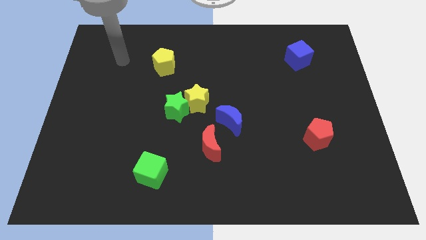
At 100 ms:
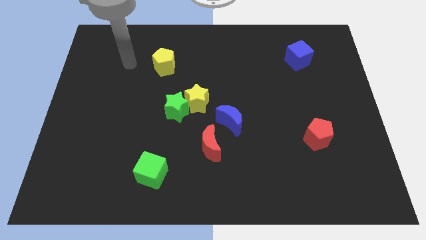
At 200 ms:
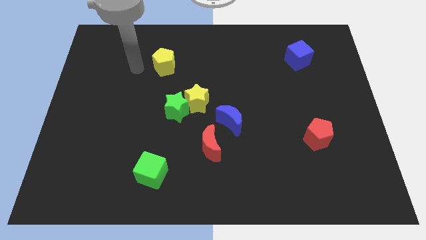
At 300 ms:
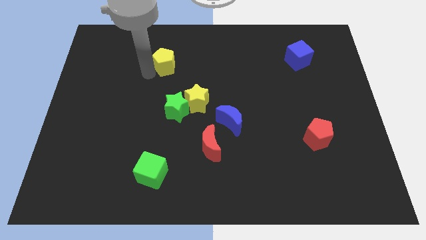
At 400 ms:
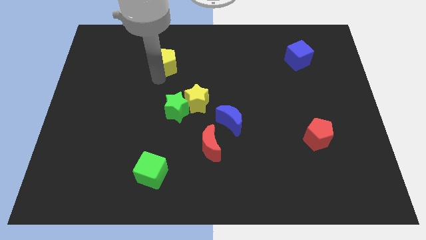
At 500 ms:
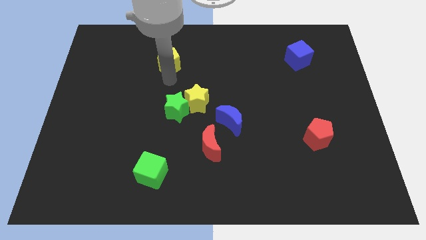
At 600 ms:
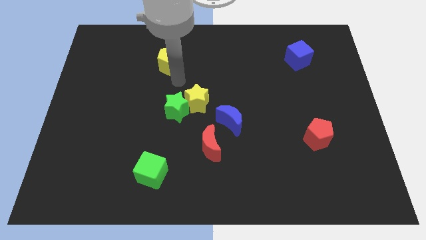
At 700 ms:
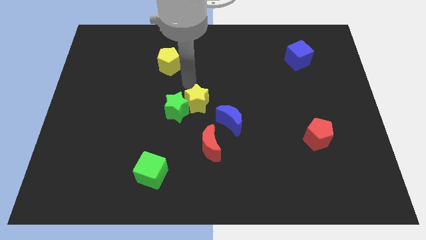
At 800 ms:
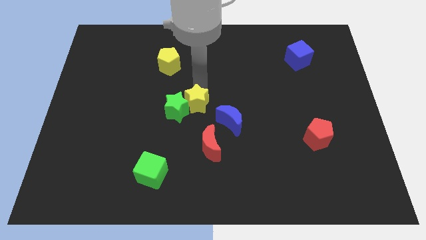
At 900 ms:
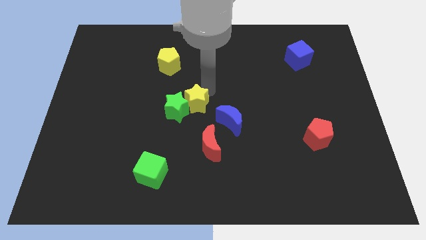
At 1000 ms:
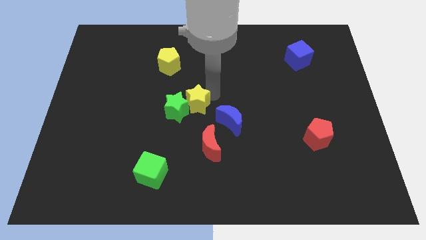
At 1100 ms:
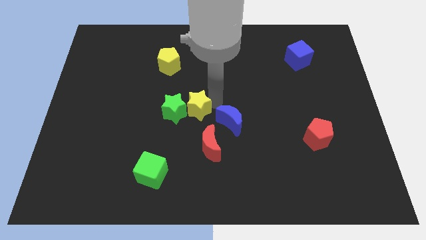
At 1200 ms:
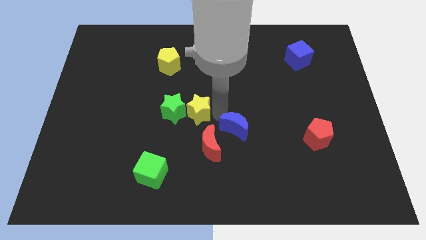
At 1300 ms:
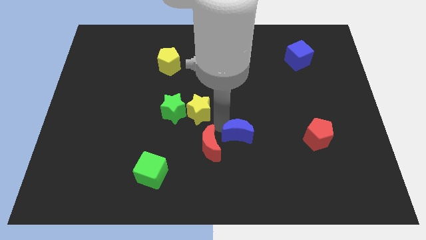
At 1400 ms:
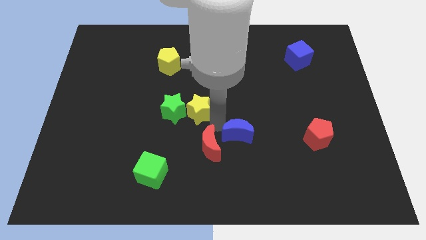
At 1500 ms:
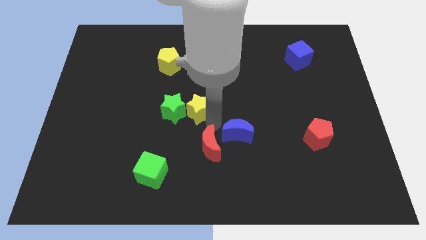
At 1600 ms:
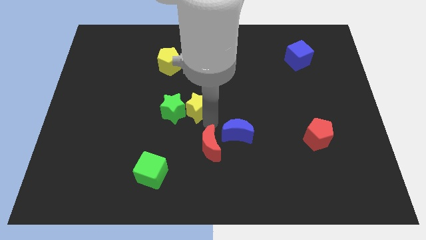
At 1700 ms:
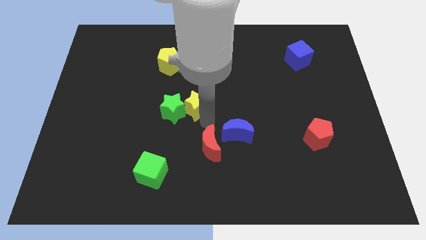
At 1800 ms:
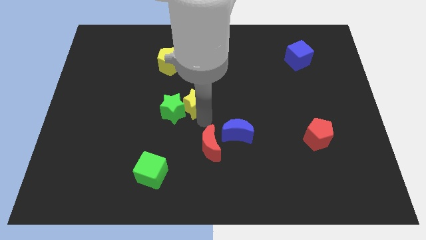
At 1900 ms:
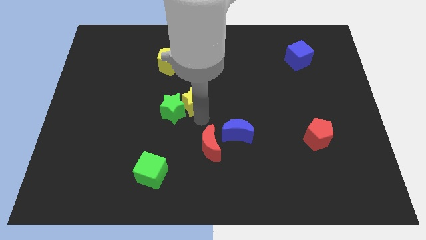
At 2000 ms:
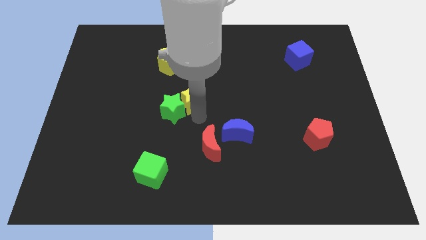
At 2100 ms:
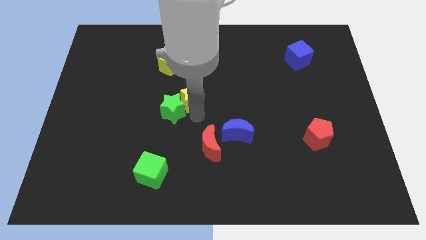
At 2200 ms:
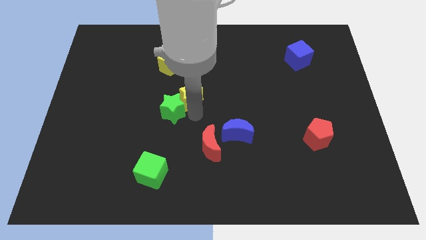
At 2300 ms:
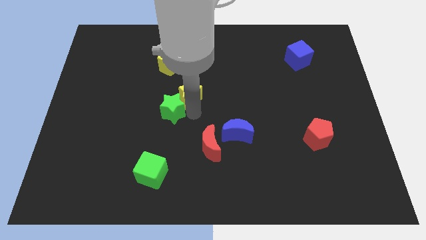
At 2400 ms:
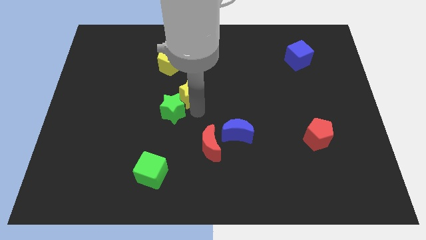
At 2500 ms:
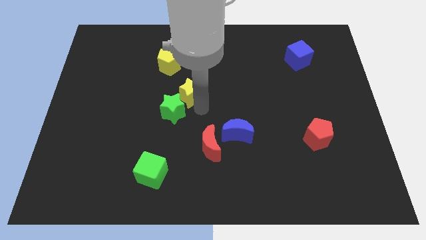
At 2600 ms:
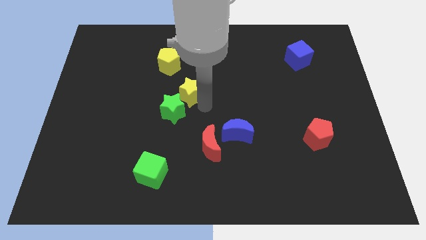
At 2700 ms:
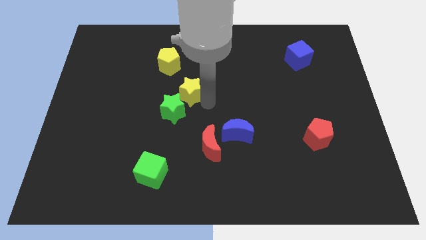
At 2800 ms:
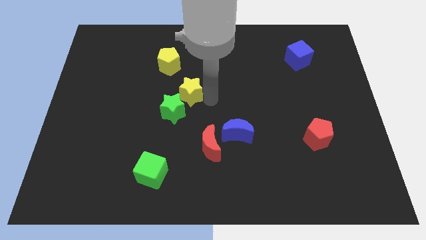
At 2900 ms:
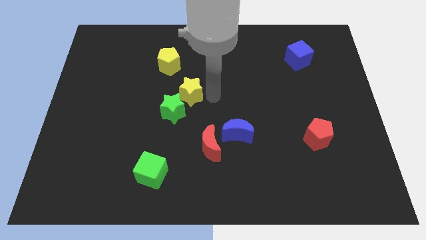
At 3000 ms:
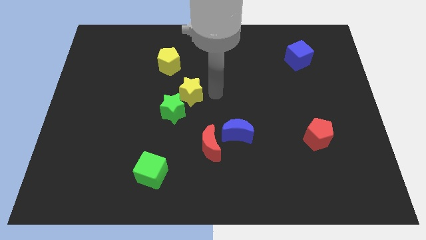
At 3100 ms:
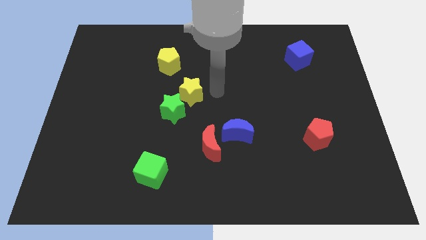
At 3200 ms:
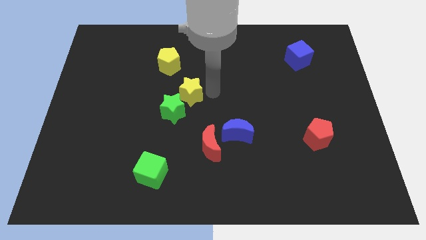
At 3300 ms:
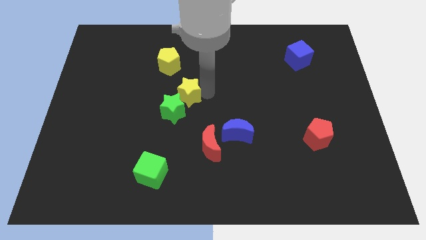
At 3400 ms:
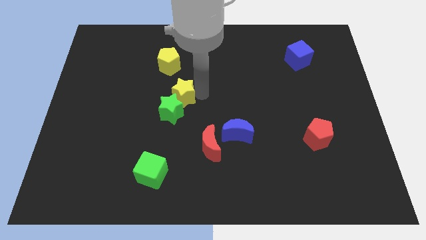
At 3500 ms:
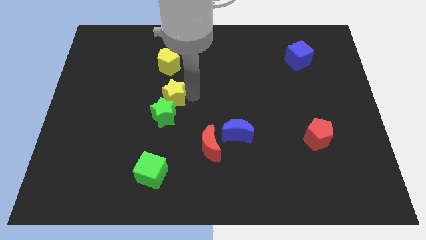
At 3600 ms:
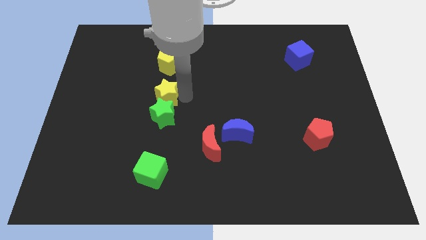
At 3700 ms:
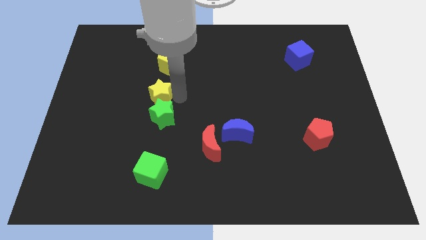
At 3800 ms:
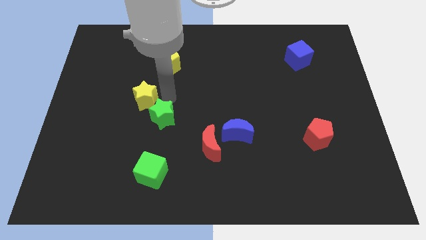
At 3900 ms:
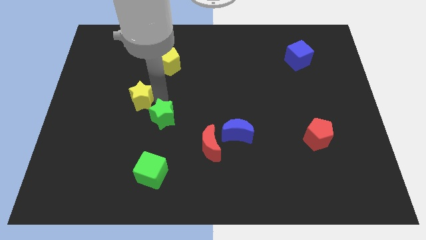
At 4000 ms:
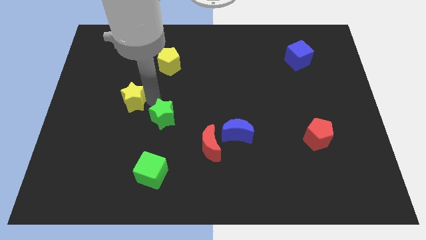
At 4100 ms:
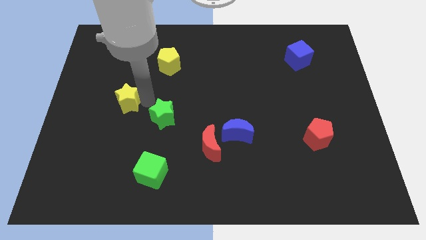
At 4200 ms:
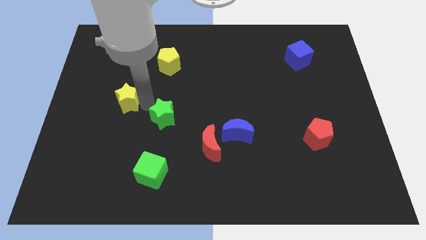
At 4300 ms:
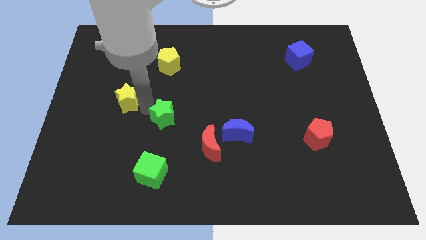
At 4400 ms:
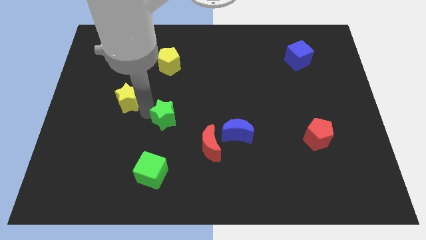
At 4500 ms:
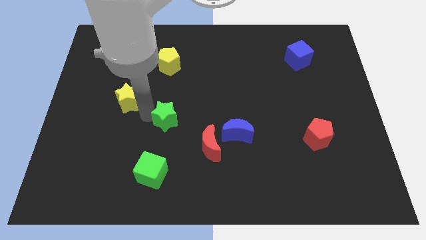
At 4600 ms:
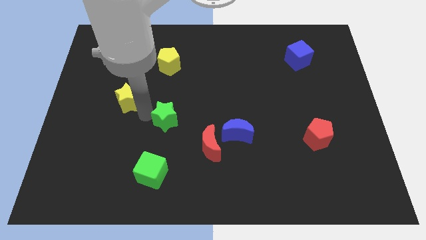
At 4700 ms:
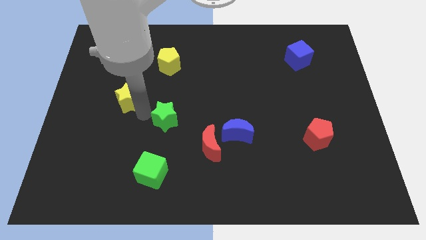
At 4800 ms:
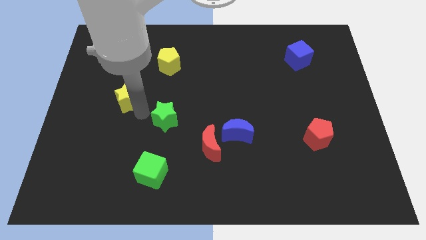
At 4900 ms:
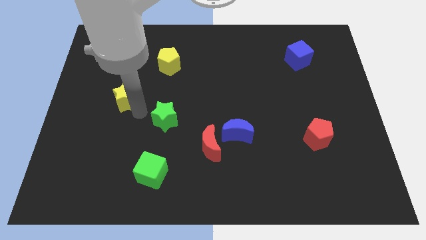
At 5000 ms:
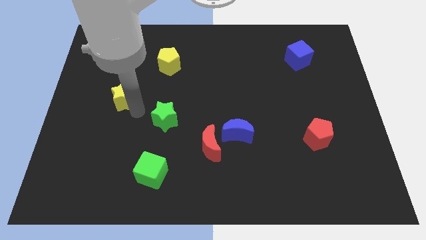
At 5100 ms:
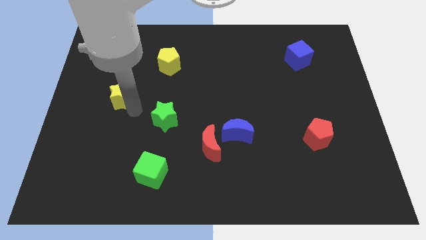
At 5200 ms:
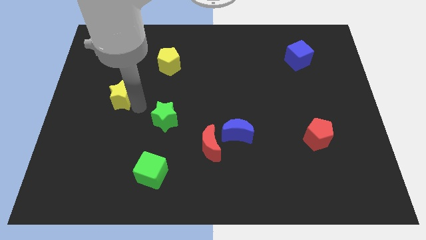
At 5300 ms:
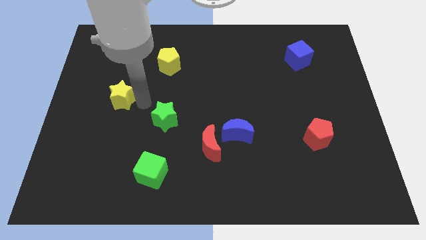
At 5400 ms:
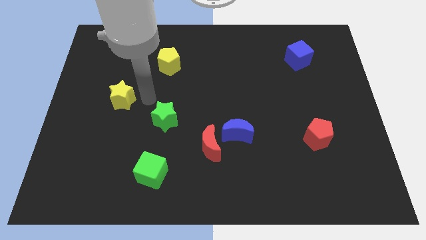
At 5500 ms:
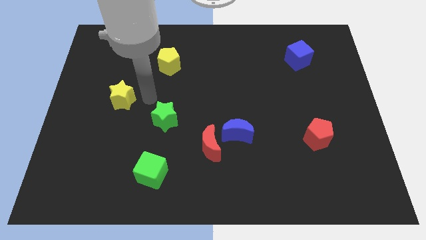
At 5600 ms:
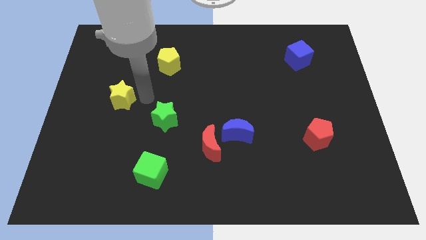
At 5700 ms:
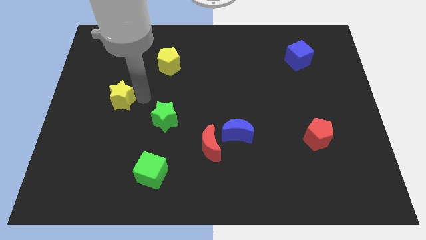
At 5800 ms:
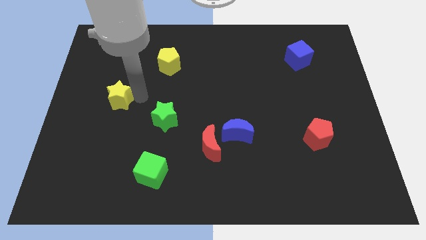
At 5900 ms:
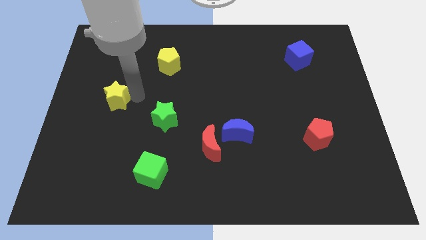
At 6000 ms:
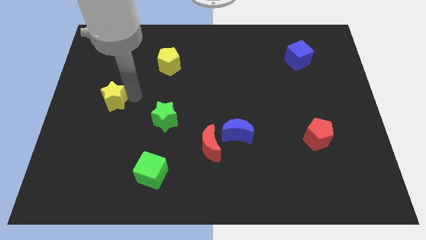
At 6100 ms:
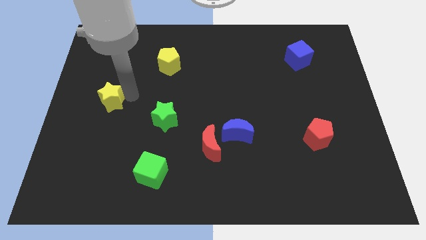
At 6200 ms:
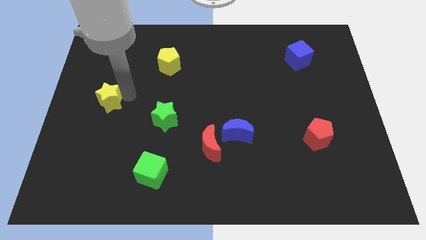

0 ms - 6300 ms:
slide the yellow star to the center left

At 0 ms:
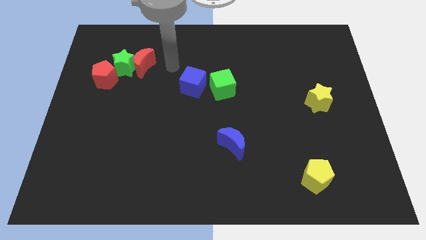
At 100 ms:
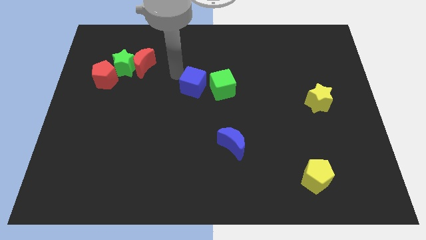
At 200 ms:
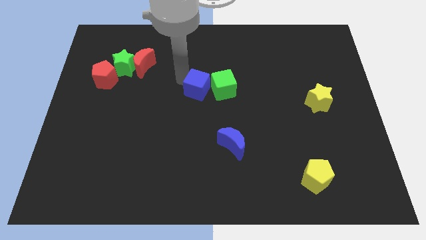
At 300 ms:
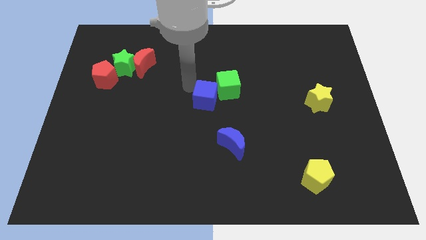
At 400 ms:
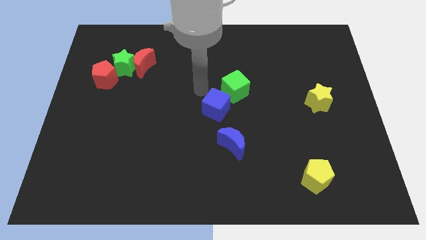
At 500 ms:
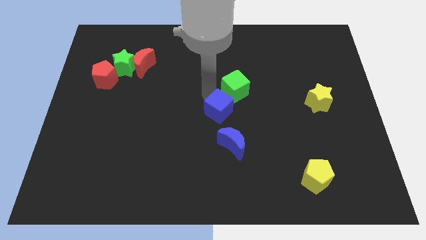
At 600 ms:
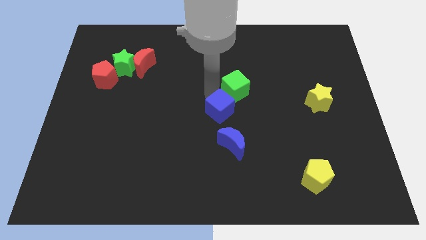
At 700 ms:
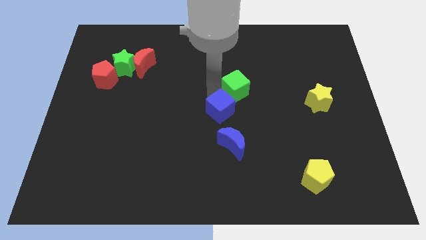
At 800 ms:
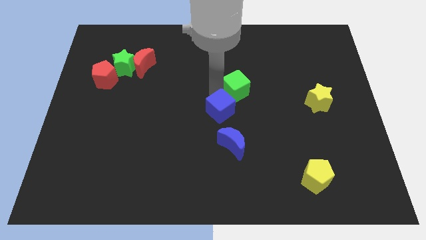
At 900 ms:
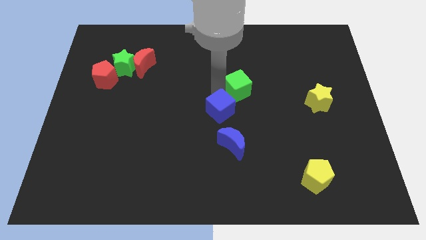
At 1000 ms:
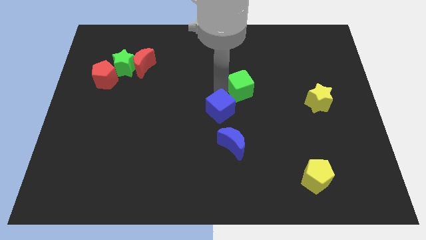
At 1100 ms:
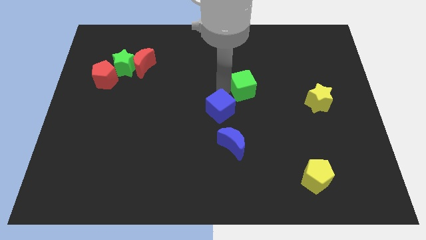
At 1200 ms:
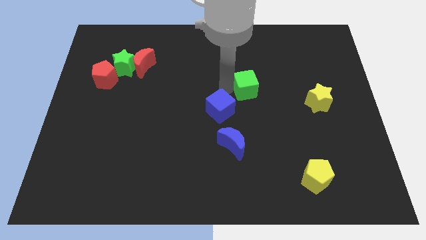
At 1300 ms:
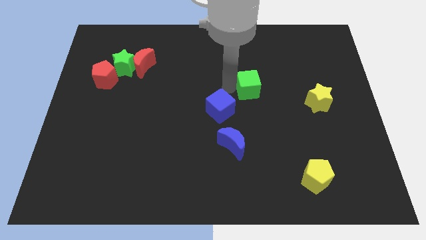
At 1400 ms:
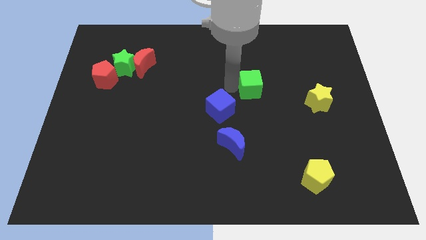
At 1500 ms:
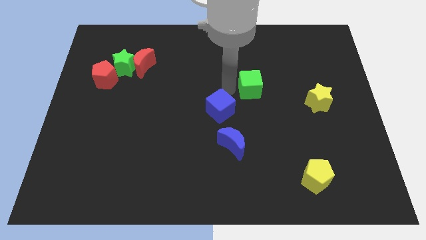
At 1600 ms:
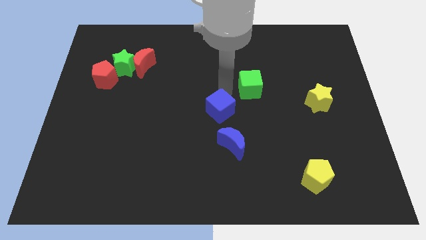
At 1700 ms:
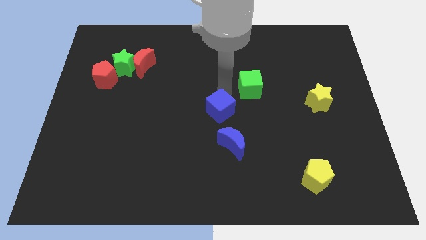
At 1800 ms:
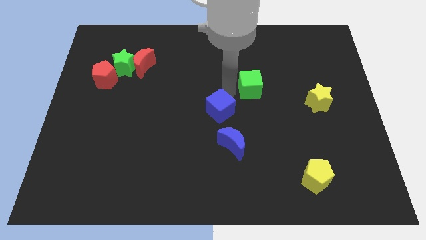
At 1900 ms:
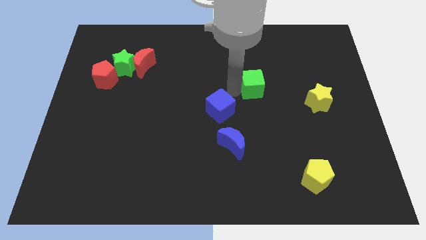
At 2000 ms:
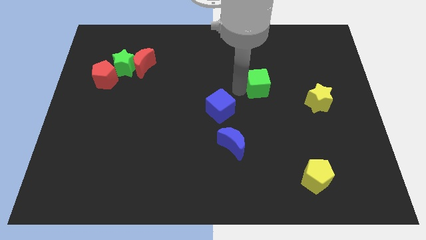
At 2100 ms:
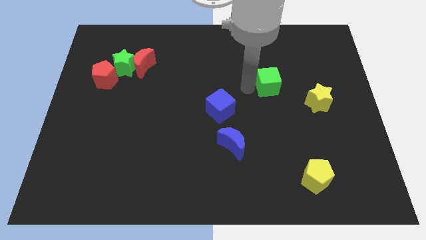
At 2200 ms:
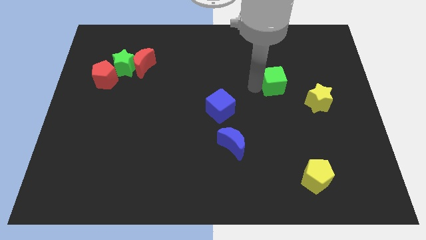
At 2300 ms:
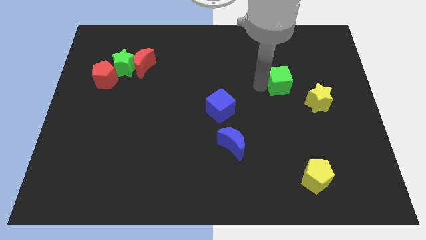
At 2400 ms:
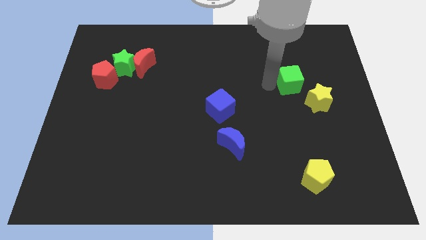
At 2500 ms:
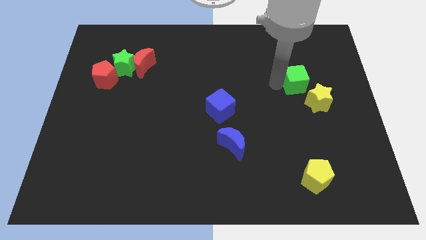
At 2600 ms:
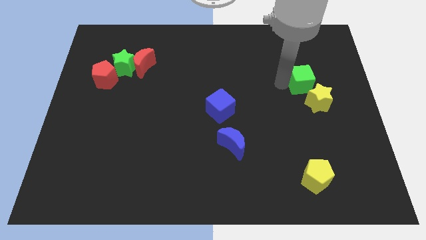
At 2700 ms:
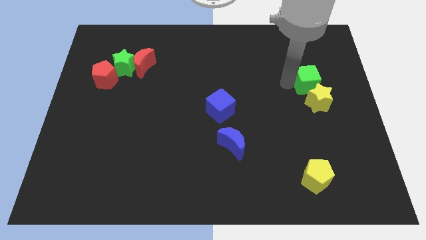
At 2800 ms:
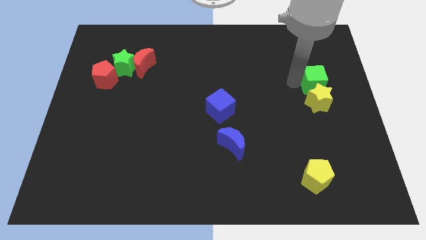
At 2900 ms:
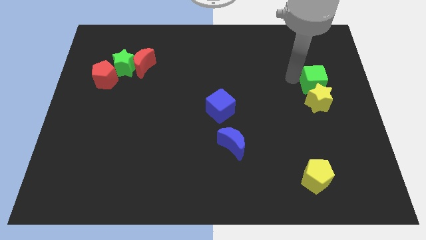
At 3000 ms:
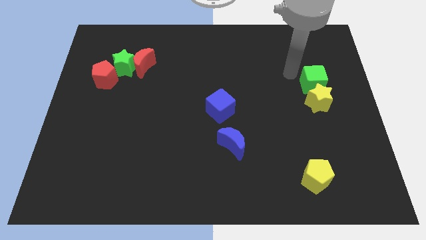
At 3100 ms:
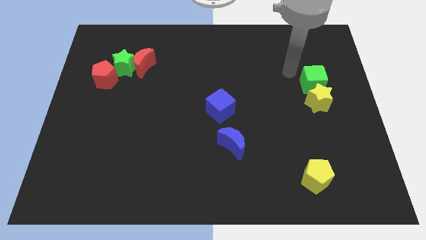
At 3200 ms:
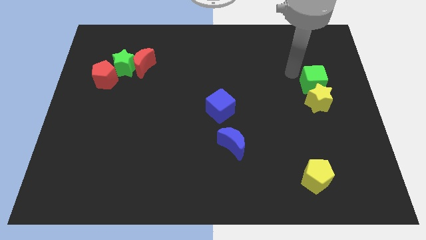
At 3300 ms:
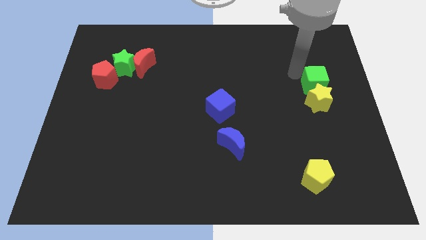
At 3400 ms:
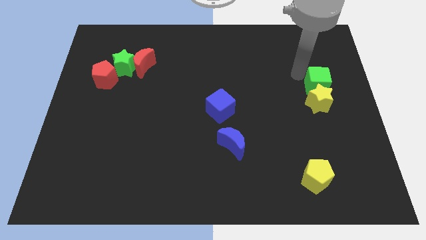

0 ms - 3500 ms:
slide the green cube to the right side
